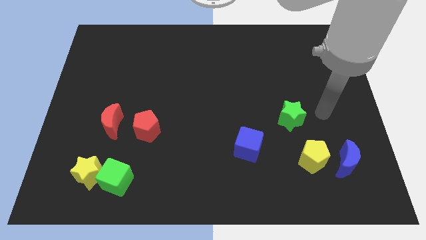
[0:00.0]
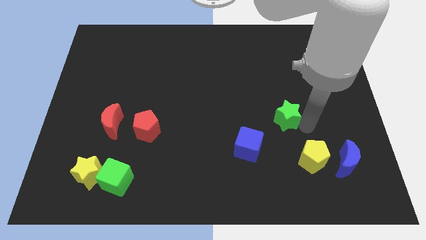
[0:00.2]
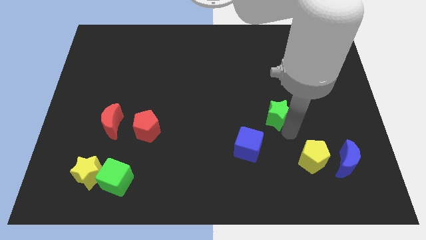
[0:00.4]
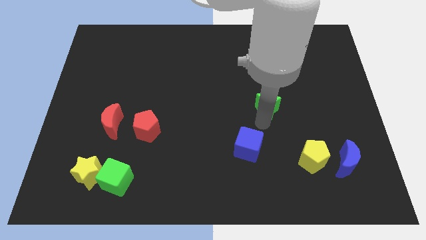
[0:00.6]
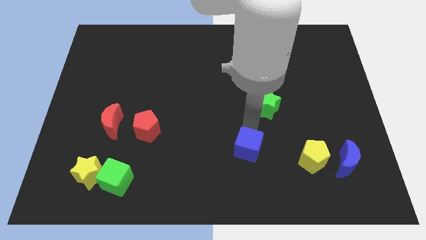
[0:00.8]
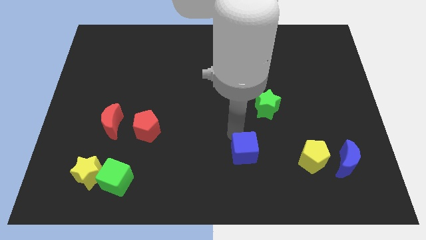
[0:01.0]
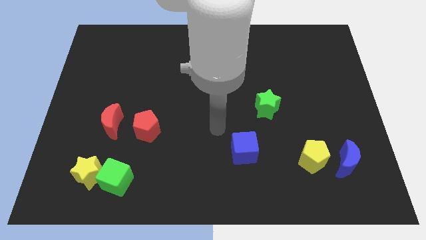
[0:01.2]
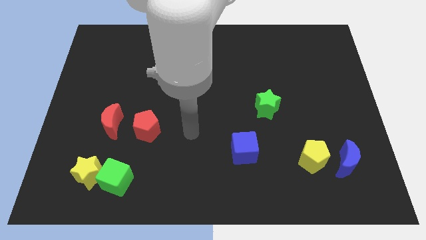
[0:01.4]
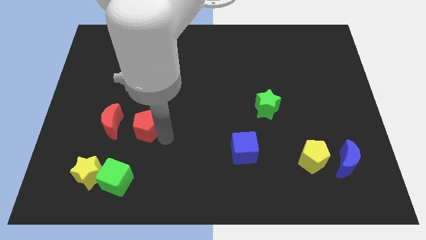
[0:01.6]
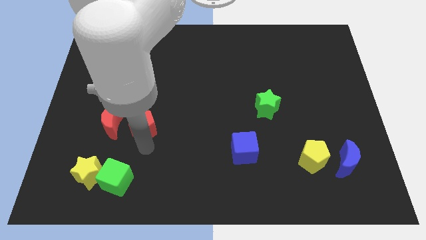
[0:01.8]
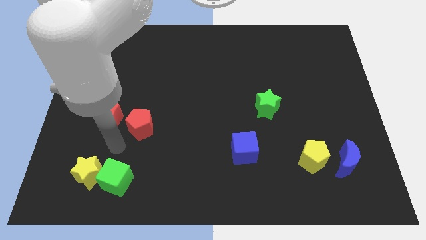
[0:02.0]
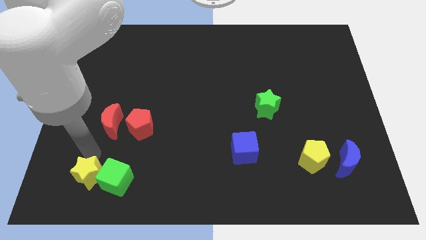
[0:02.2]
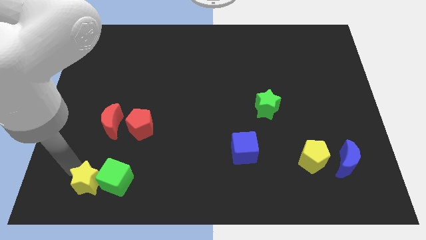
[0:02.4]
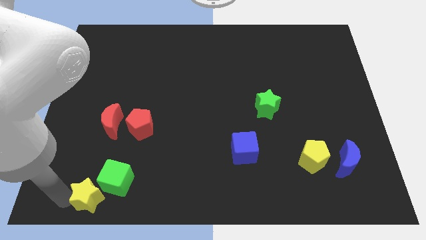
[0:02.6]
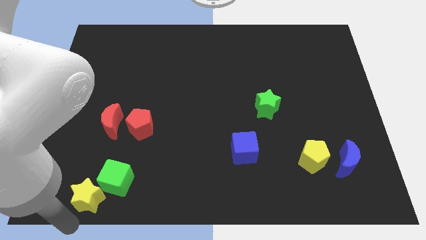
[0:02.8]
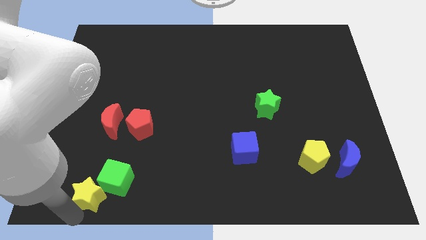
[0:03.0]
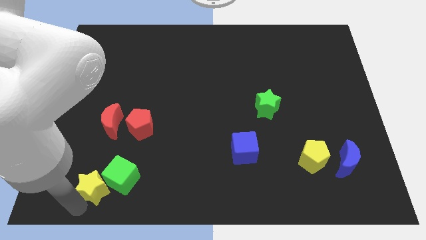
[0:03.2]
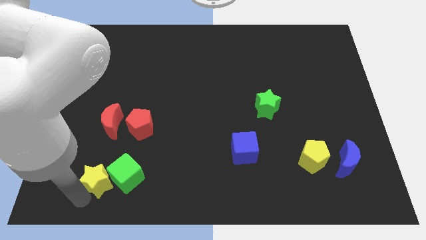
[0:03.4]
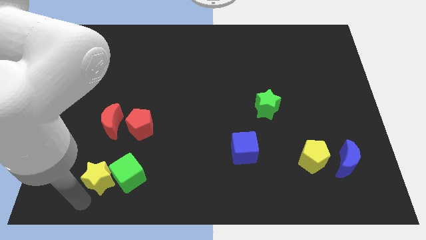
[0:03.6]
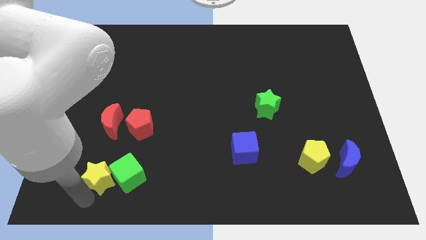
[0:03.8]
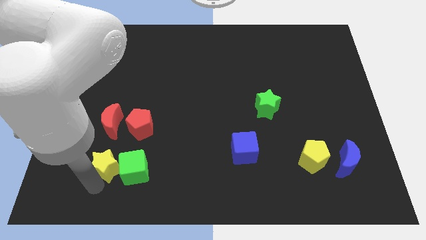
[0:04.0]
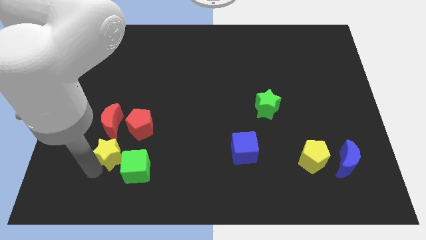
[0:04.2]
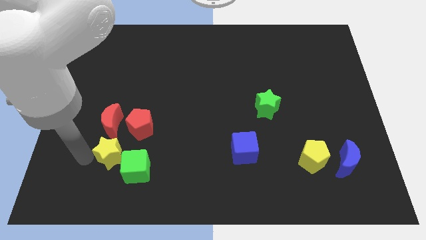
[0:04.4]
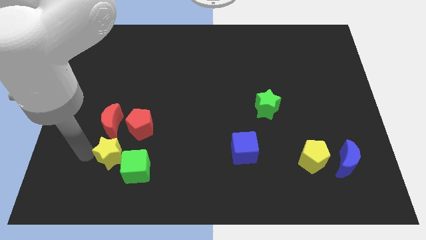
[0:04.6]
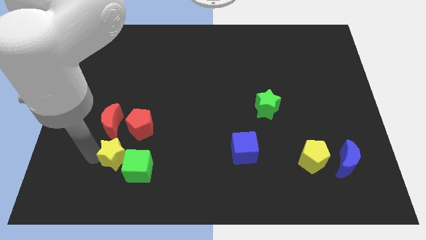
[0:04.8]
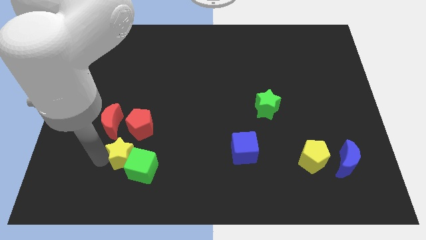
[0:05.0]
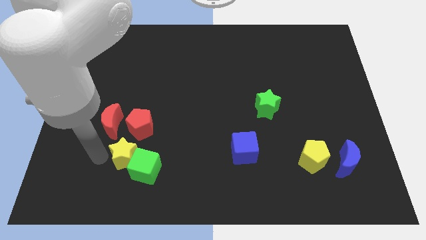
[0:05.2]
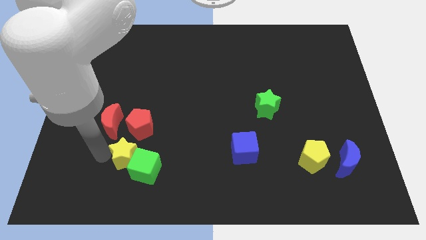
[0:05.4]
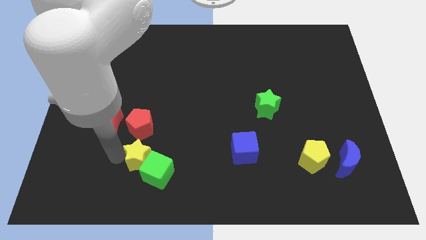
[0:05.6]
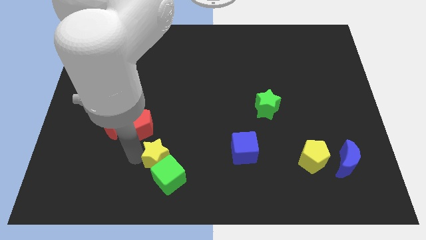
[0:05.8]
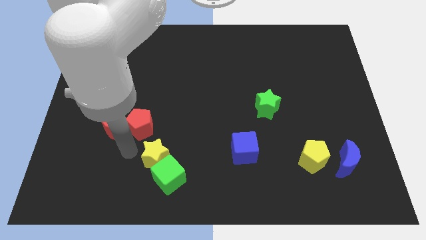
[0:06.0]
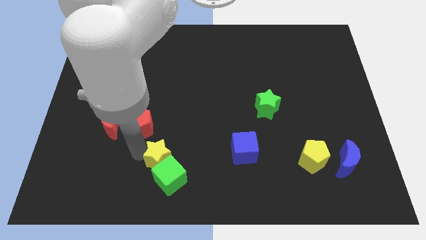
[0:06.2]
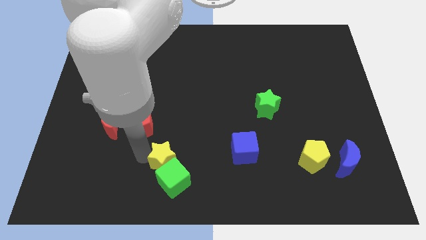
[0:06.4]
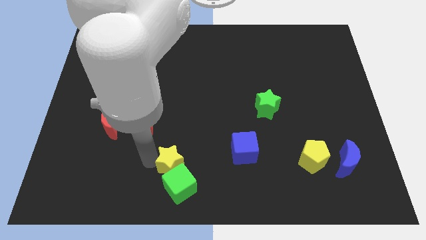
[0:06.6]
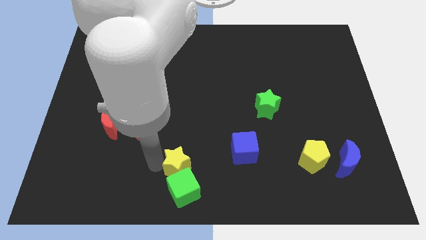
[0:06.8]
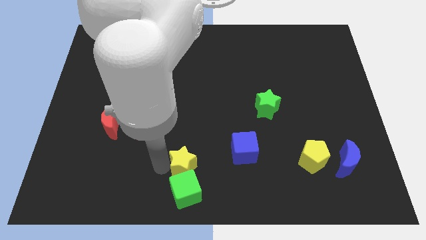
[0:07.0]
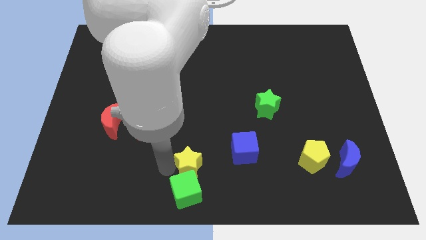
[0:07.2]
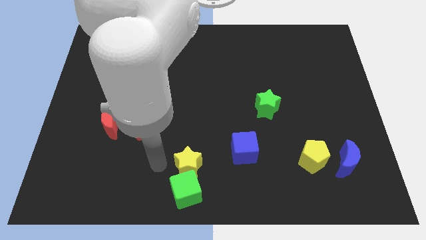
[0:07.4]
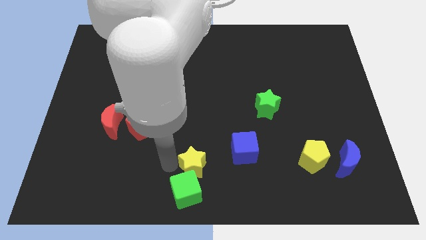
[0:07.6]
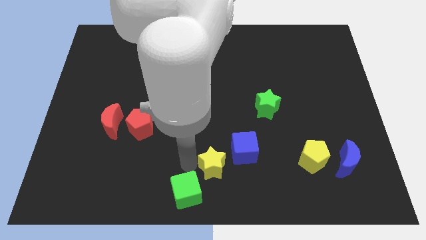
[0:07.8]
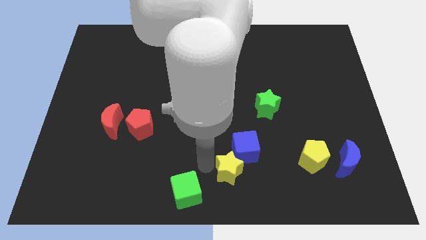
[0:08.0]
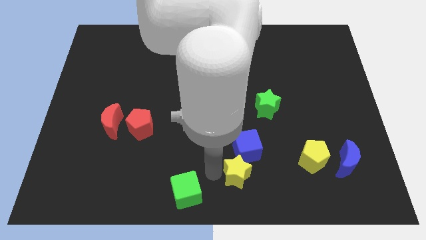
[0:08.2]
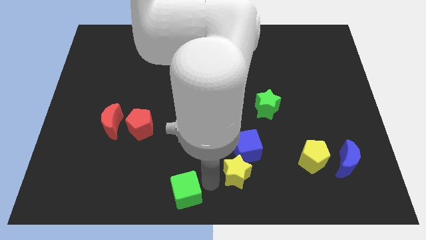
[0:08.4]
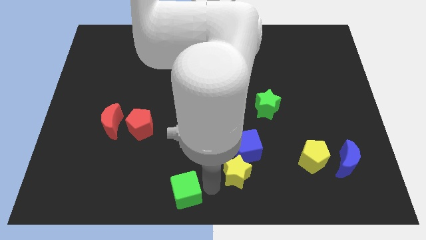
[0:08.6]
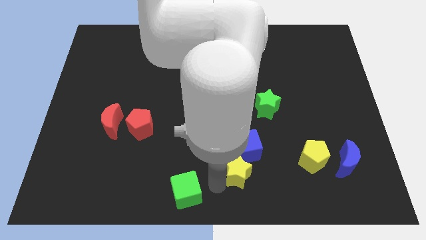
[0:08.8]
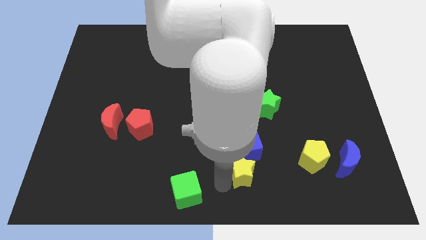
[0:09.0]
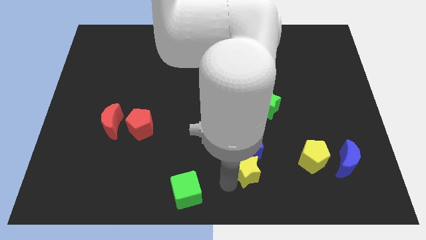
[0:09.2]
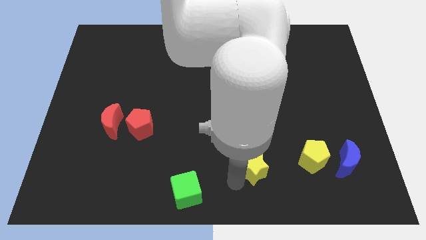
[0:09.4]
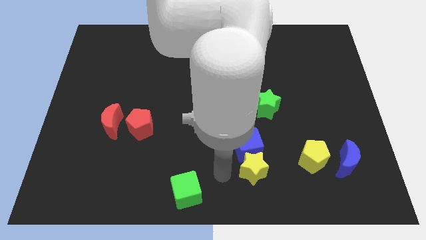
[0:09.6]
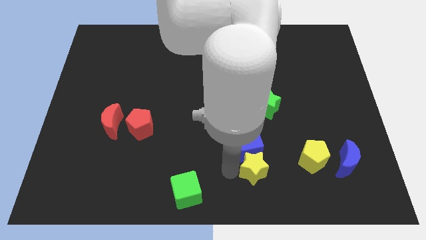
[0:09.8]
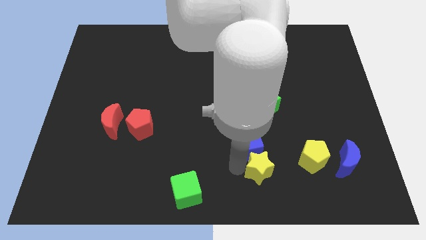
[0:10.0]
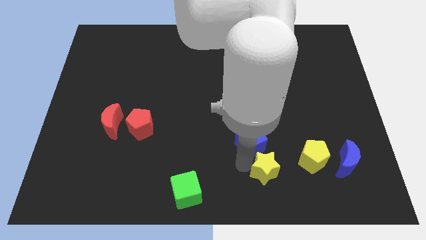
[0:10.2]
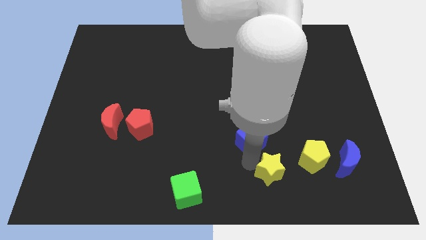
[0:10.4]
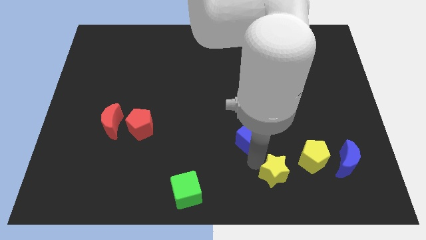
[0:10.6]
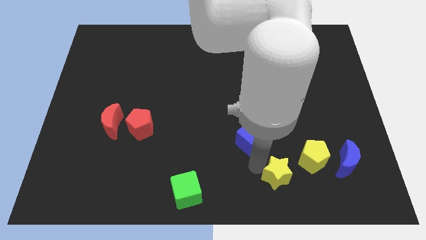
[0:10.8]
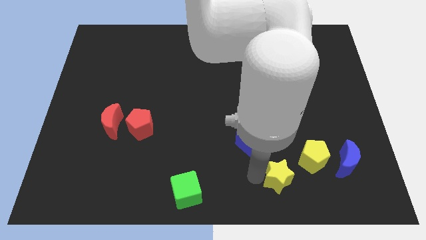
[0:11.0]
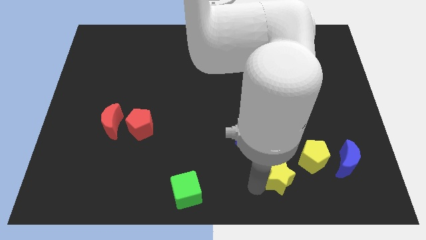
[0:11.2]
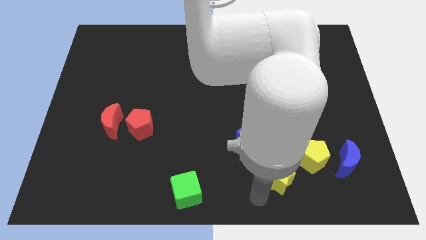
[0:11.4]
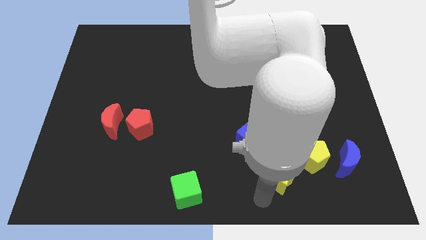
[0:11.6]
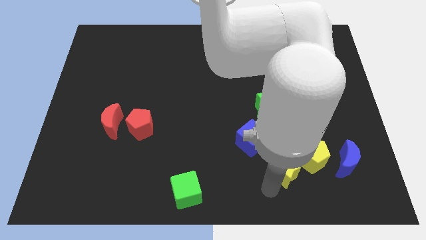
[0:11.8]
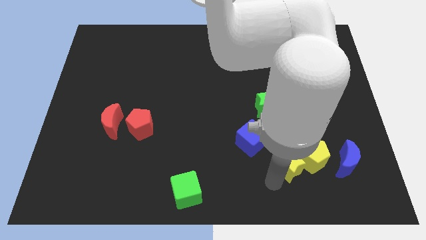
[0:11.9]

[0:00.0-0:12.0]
slide the yellow star next to the yellow pentagon

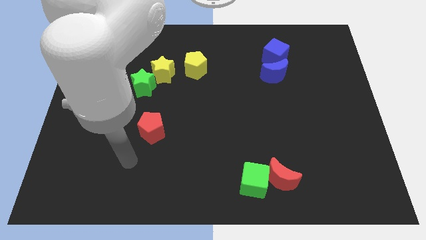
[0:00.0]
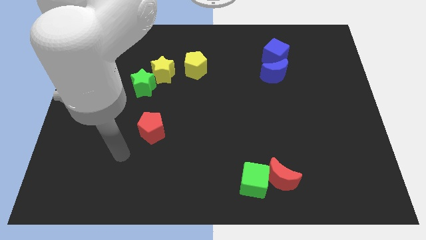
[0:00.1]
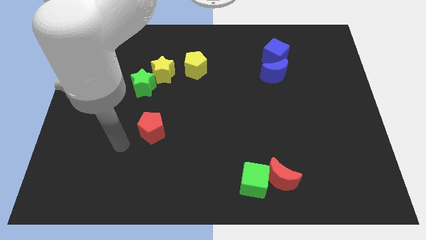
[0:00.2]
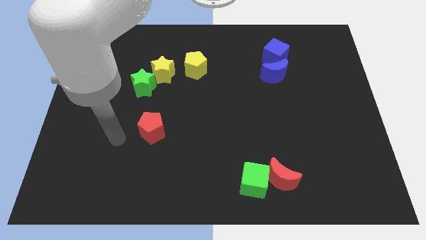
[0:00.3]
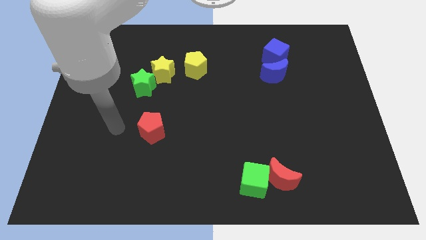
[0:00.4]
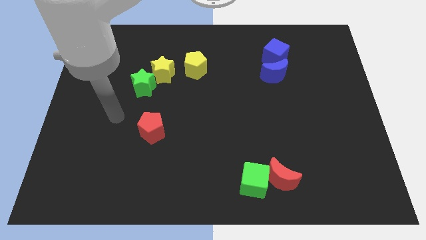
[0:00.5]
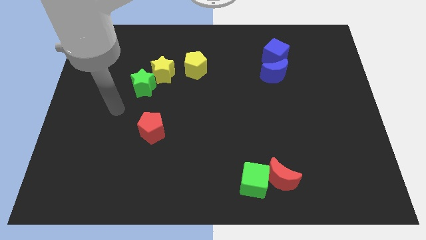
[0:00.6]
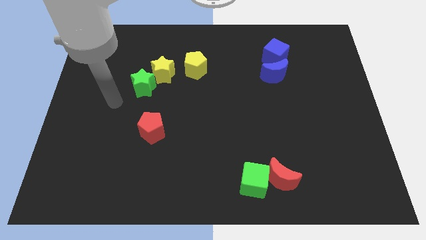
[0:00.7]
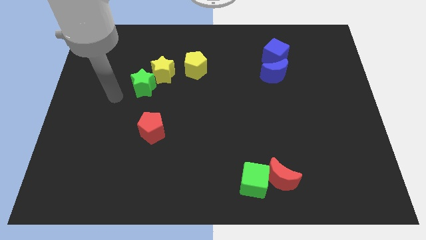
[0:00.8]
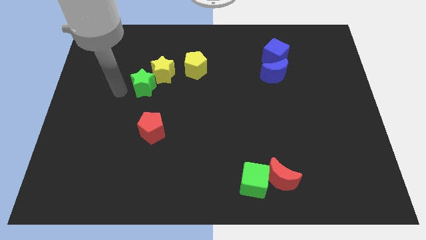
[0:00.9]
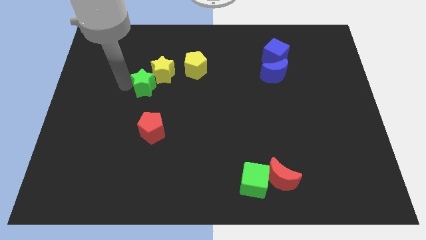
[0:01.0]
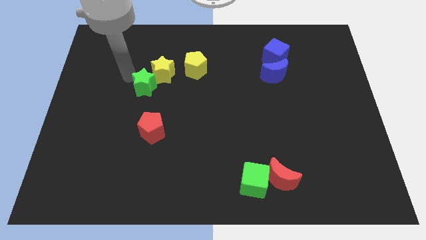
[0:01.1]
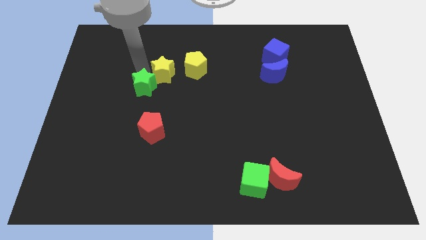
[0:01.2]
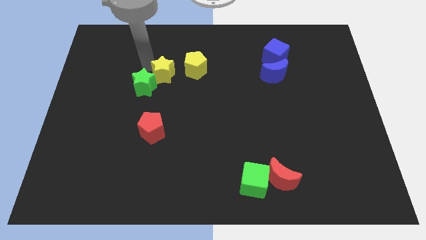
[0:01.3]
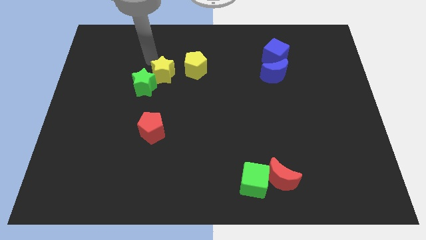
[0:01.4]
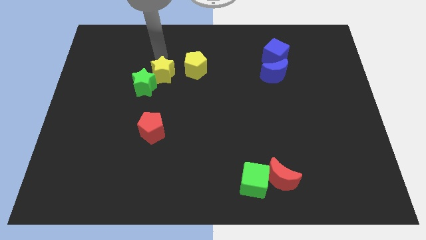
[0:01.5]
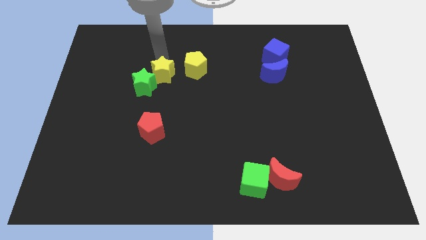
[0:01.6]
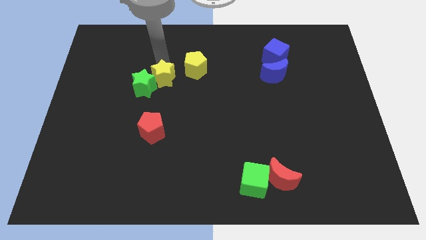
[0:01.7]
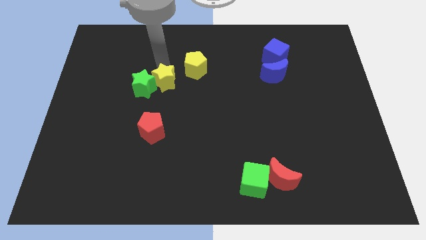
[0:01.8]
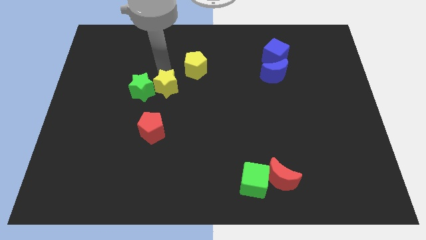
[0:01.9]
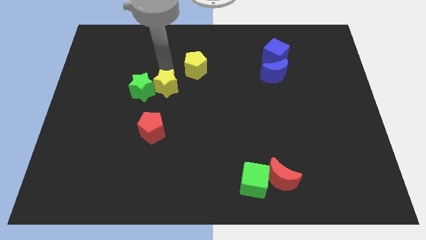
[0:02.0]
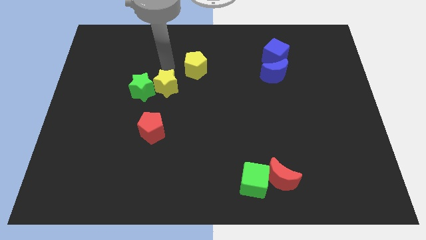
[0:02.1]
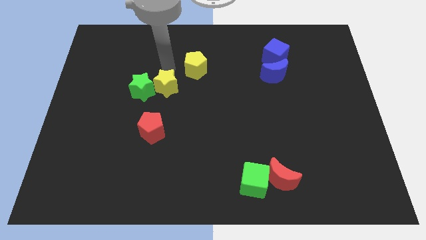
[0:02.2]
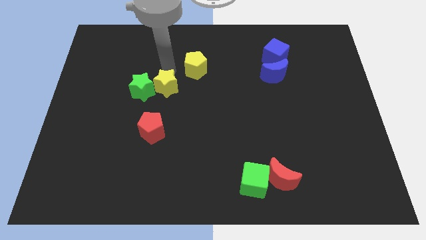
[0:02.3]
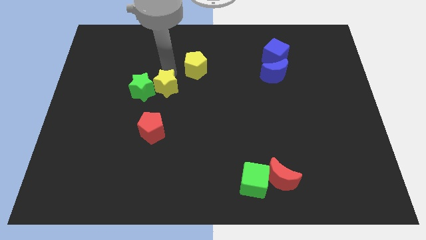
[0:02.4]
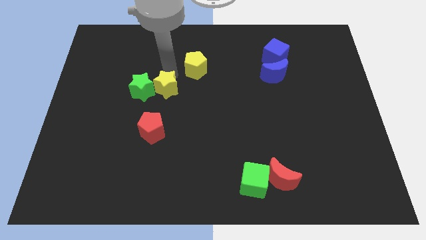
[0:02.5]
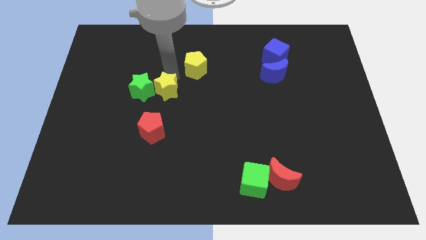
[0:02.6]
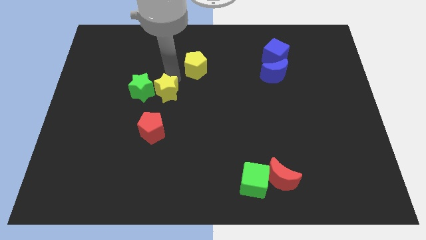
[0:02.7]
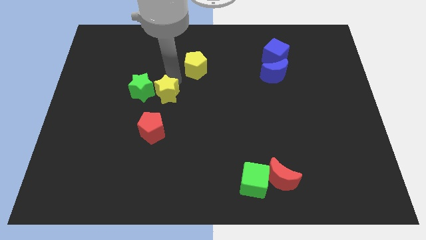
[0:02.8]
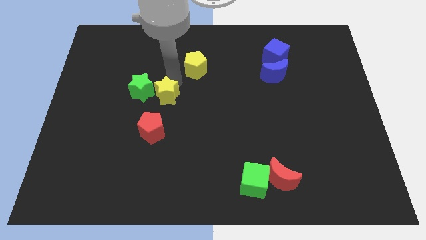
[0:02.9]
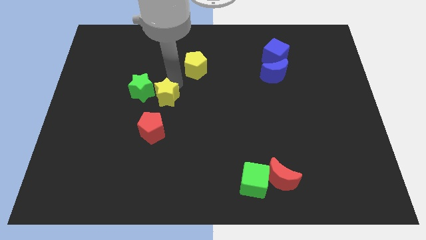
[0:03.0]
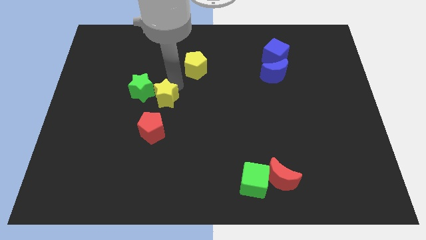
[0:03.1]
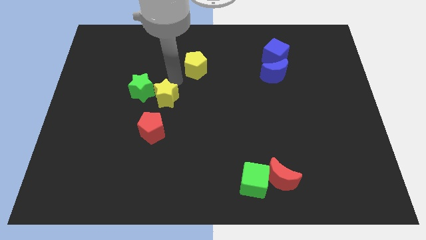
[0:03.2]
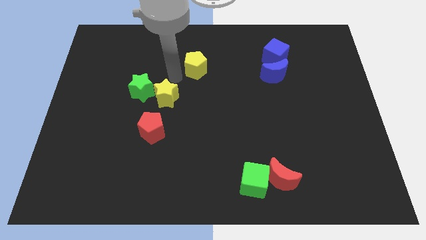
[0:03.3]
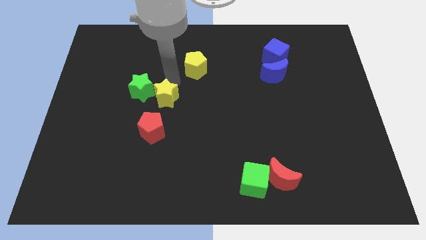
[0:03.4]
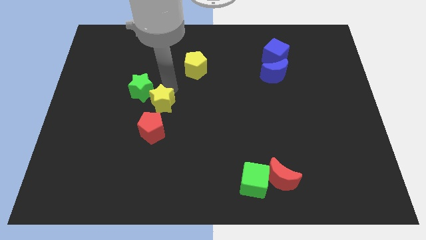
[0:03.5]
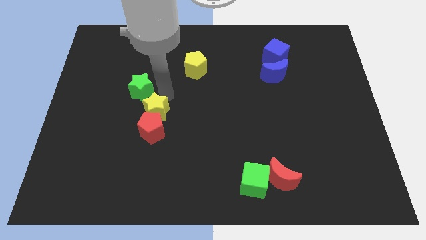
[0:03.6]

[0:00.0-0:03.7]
push the yellow star to the red pentagon
